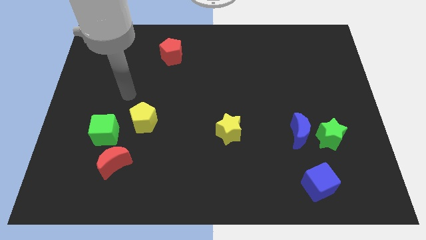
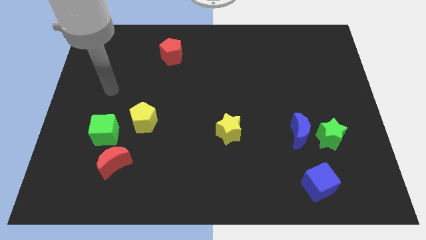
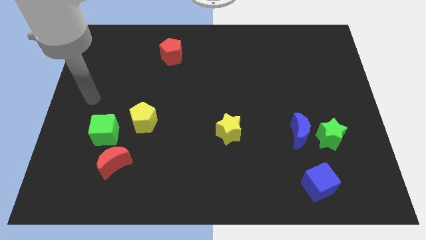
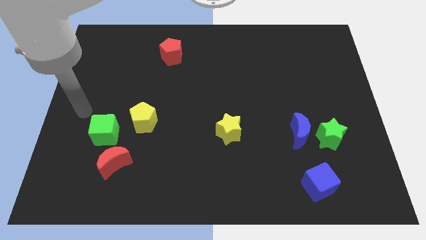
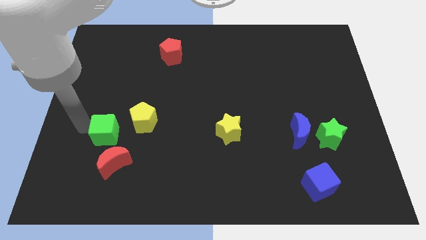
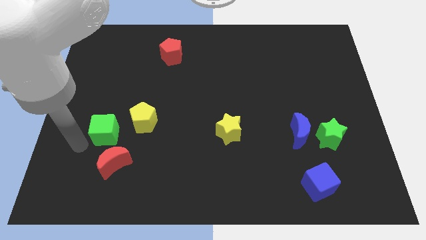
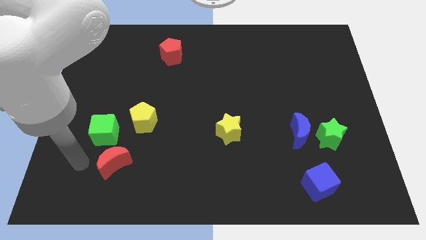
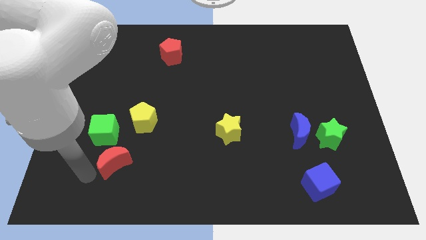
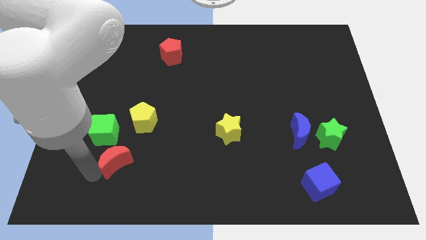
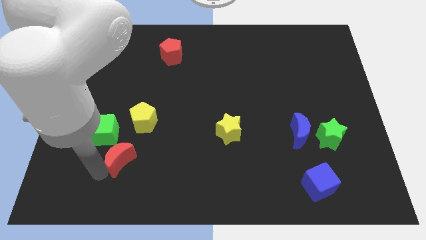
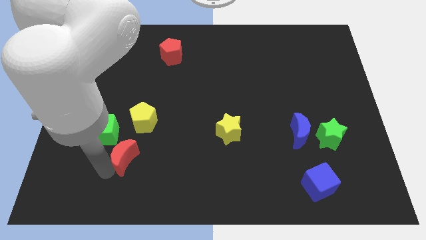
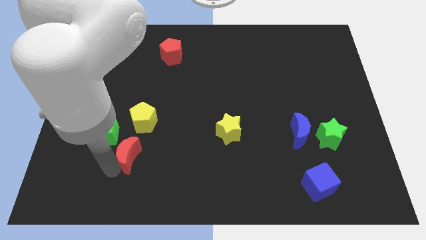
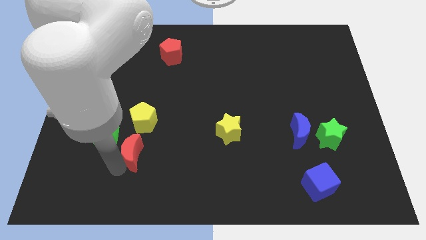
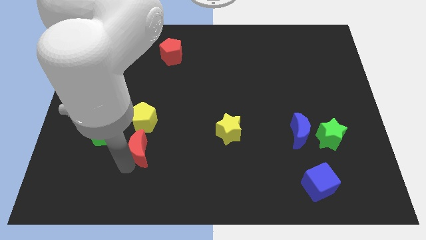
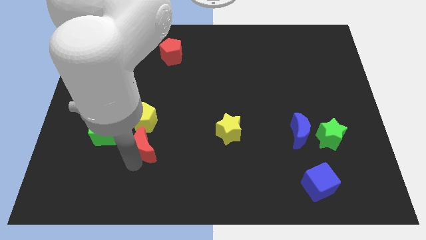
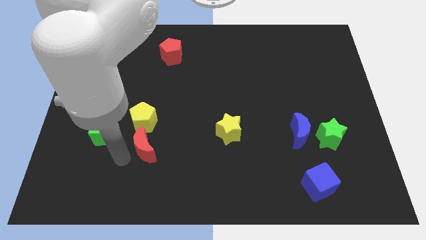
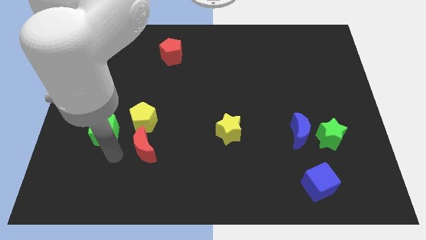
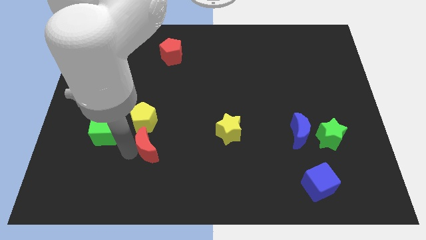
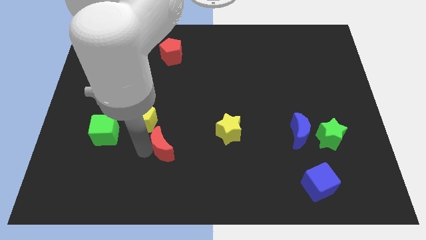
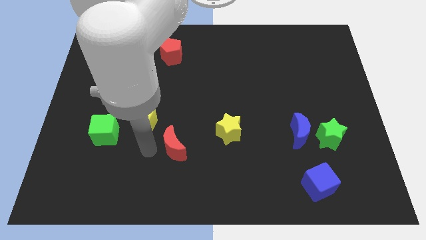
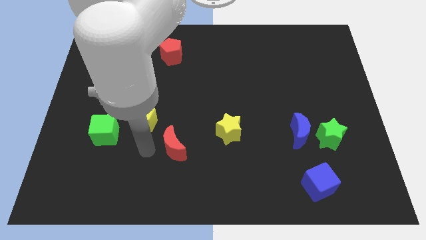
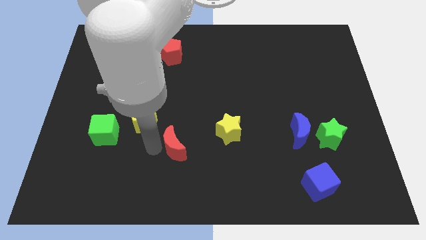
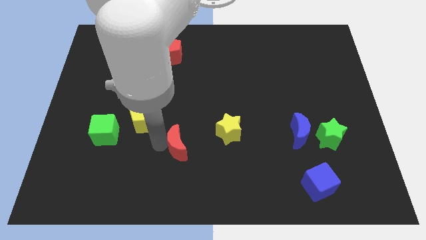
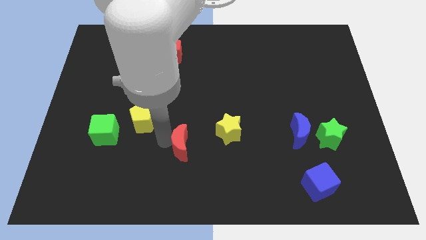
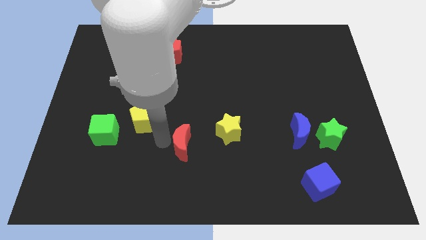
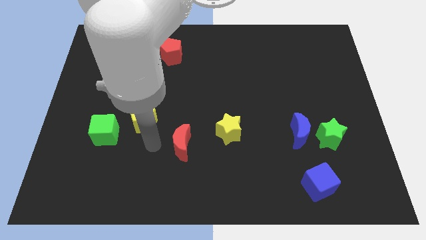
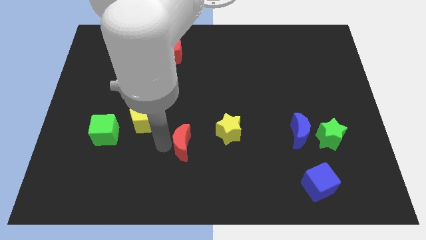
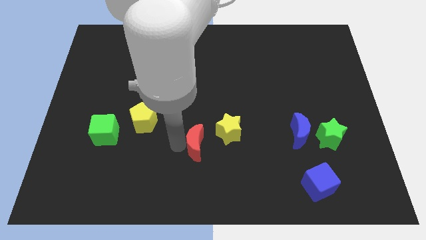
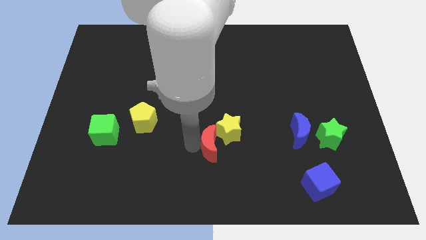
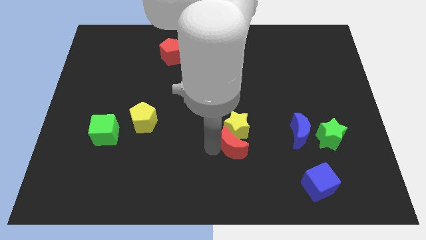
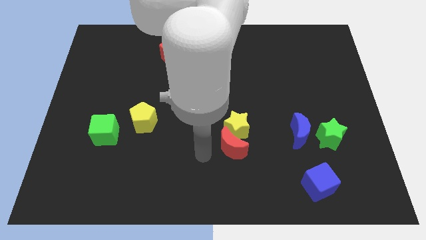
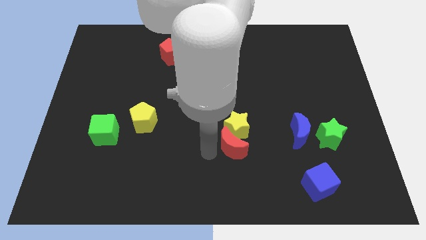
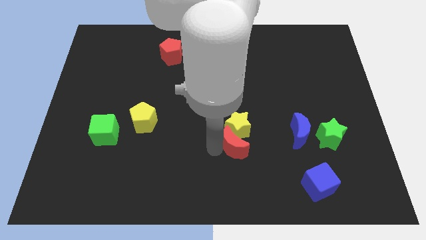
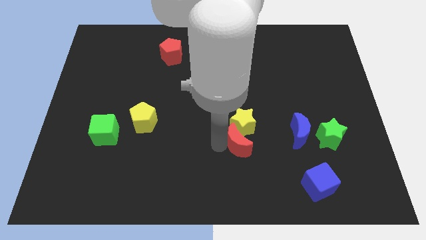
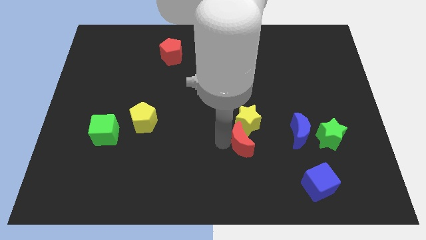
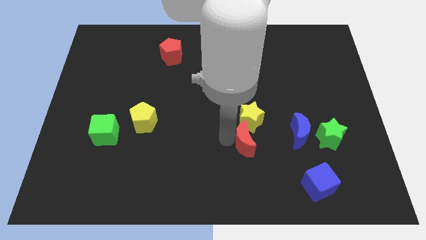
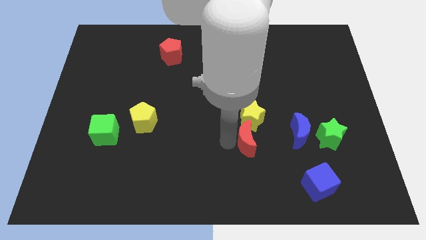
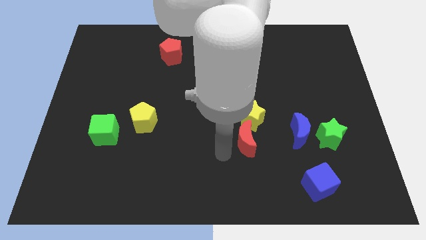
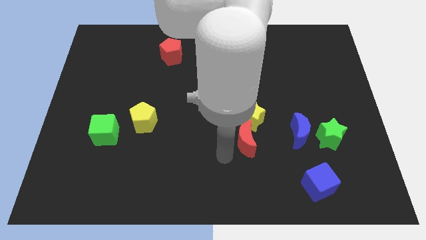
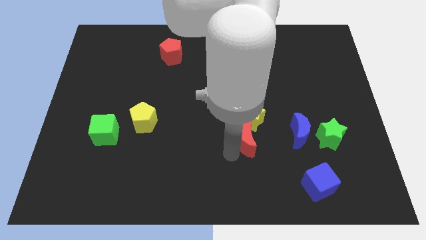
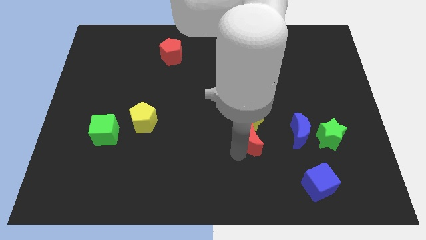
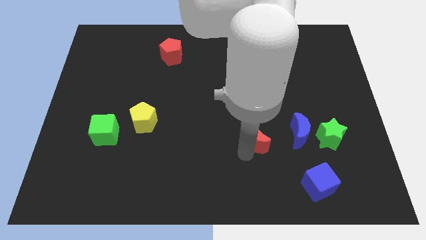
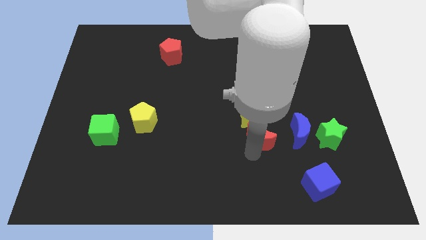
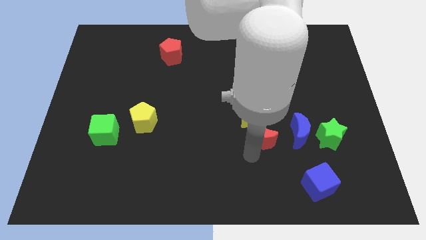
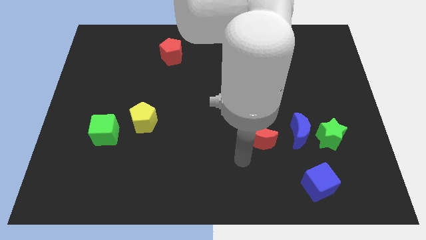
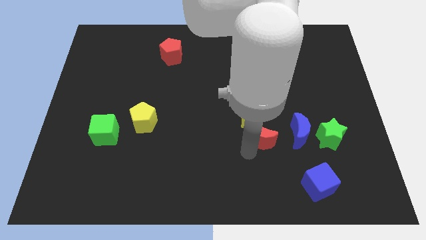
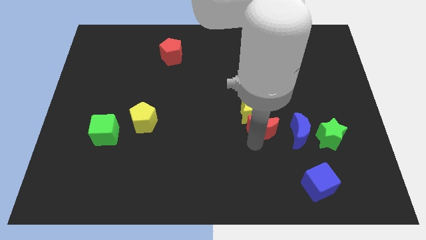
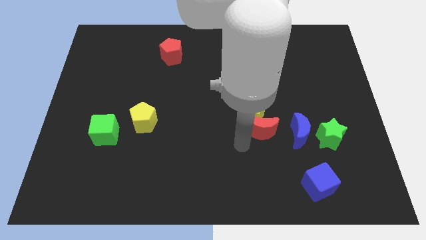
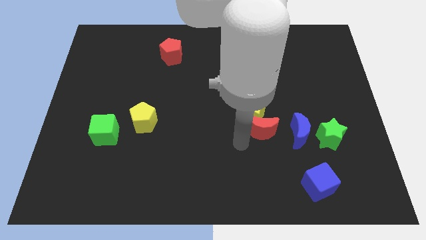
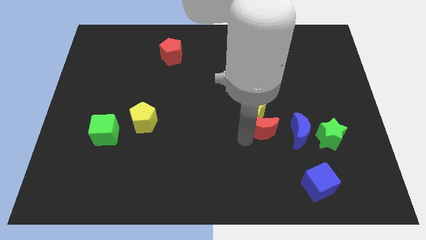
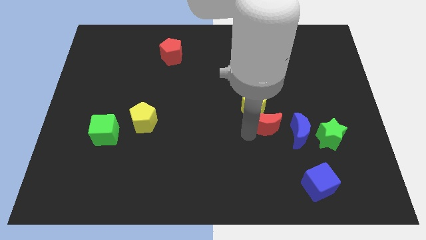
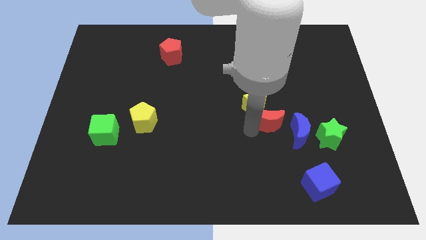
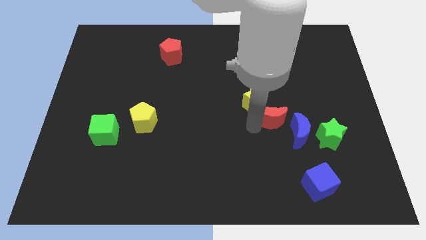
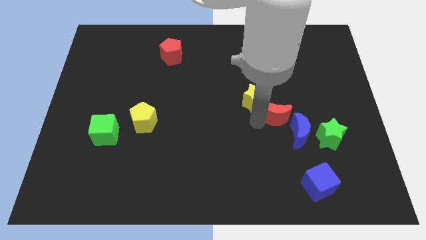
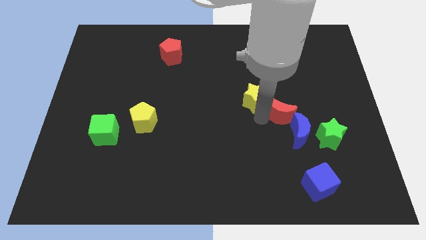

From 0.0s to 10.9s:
slide the red moon to the top left side of the green star

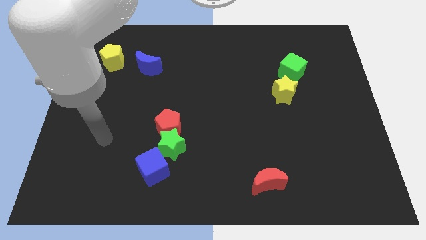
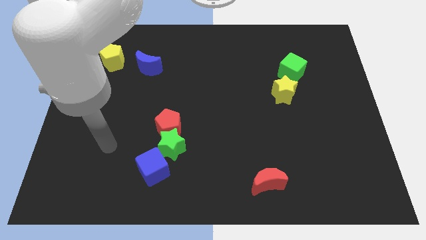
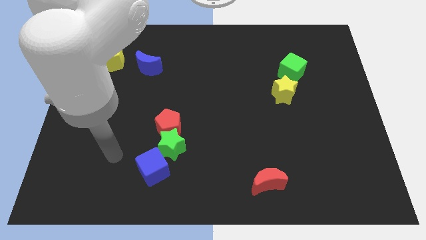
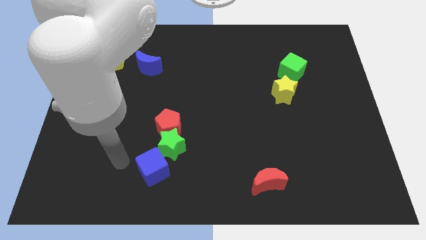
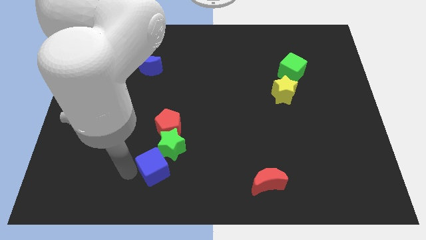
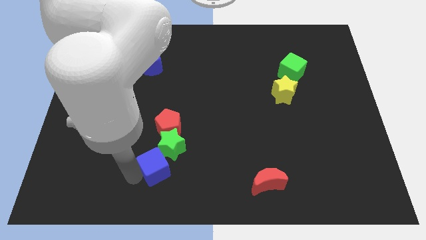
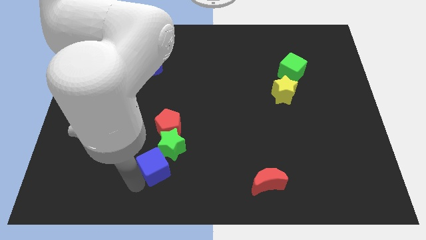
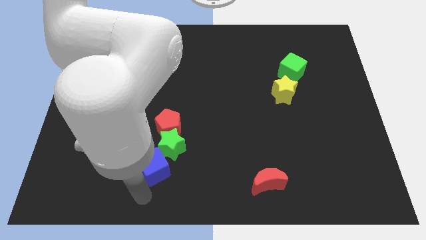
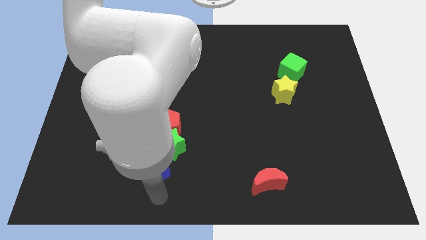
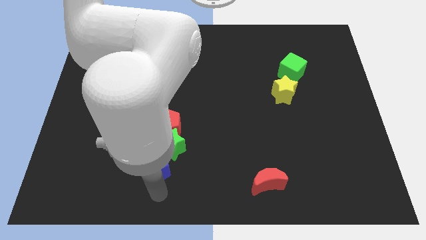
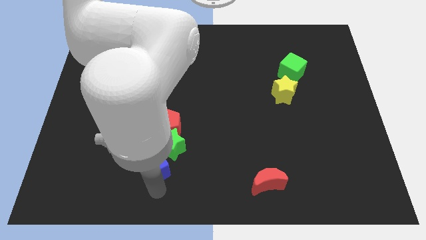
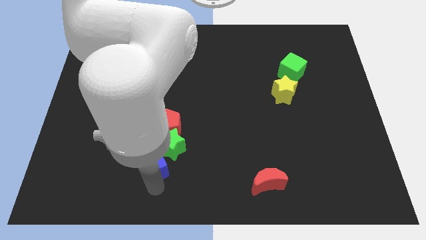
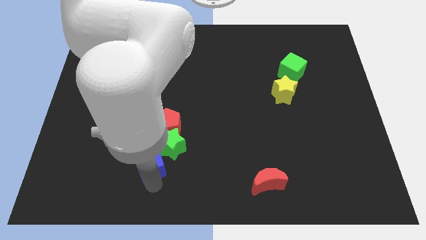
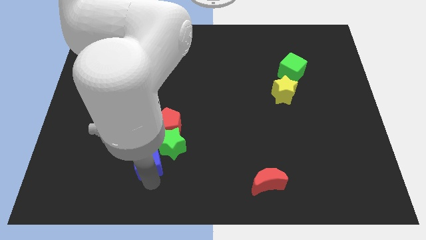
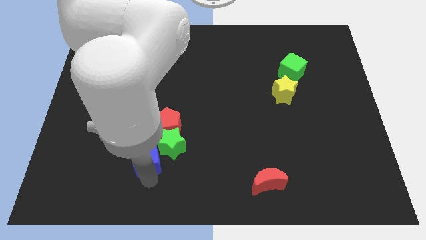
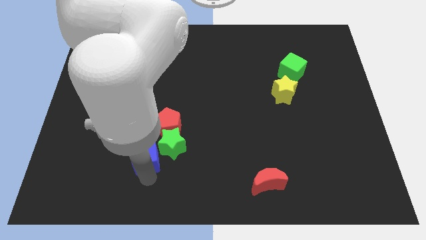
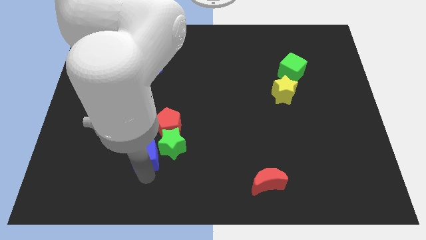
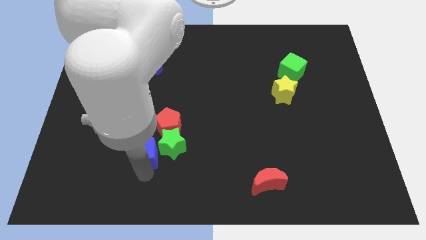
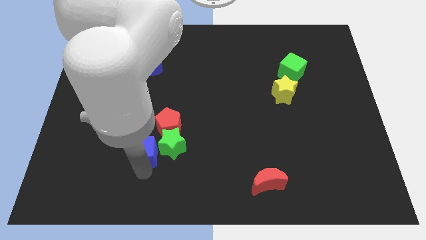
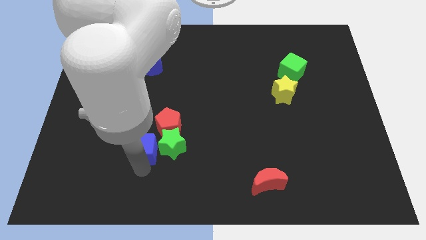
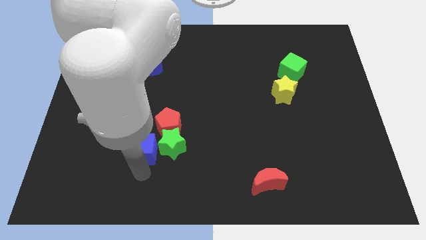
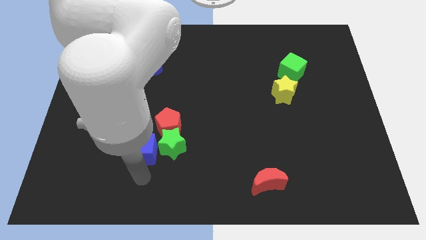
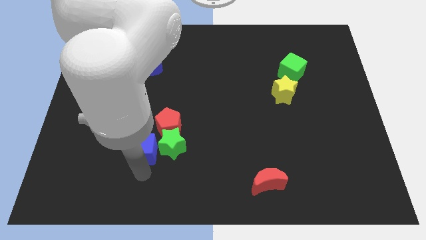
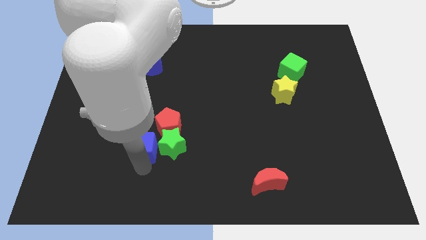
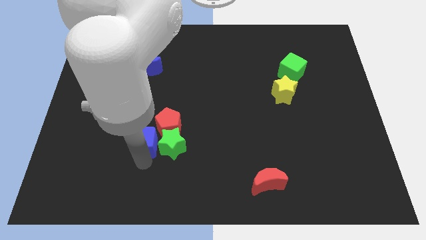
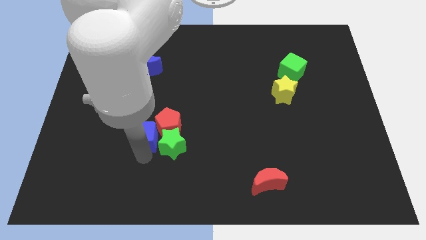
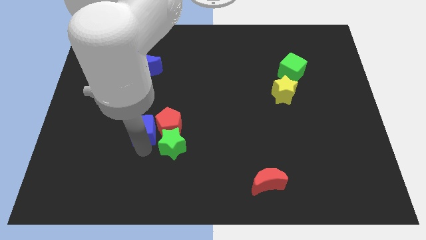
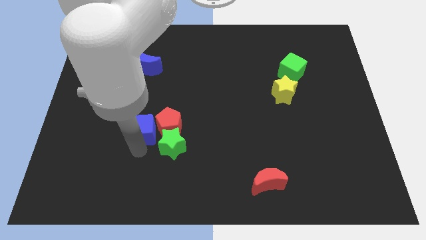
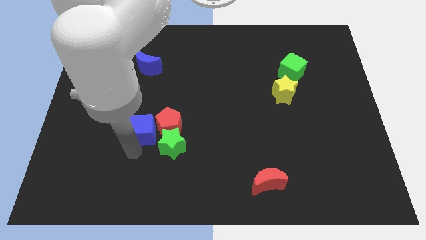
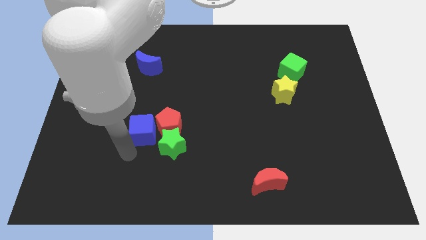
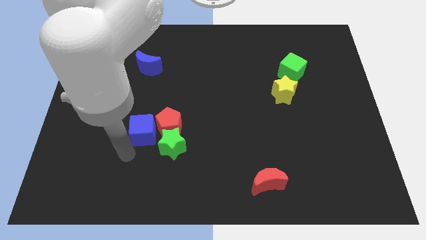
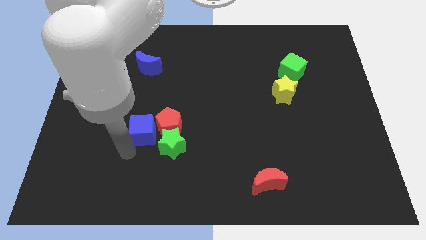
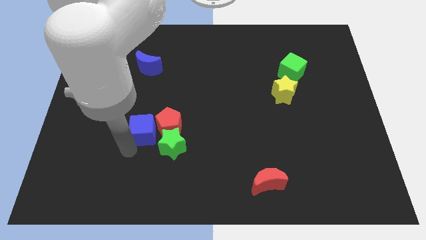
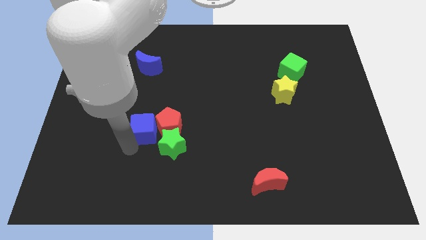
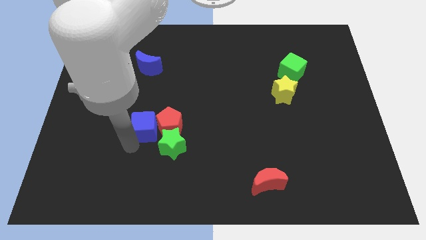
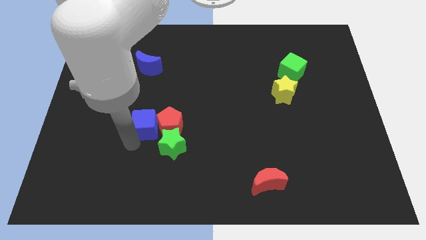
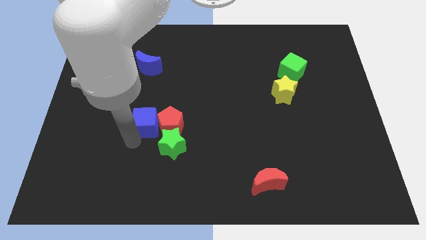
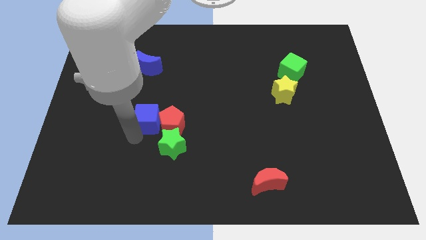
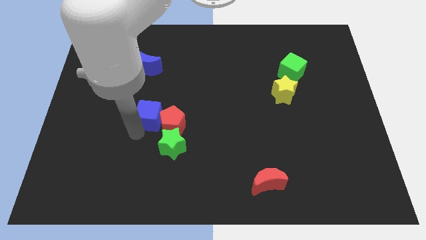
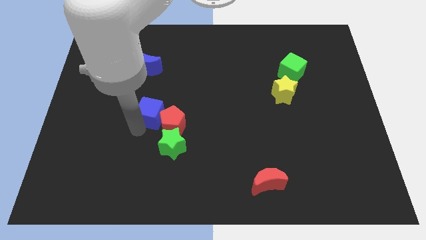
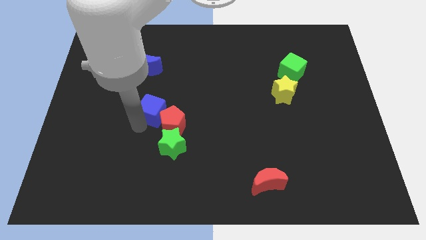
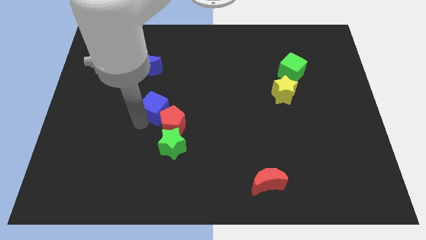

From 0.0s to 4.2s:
move the blue cube above the red pentagon
